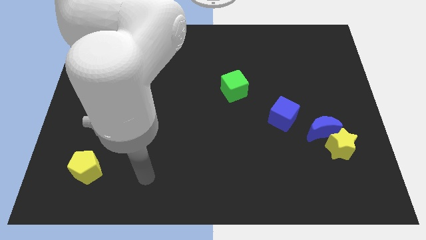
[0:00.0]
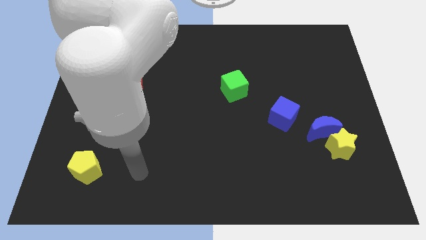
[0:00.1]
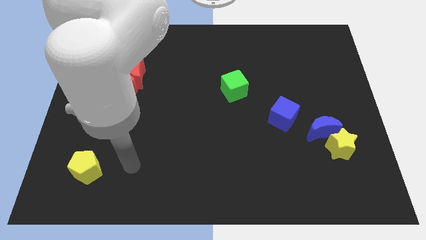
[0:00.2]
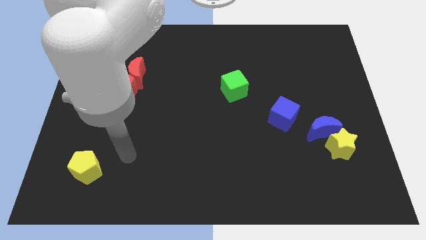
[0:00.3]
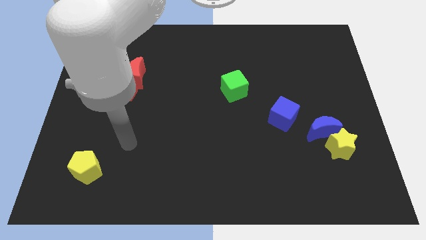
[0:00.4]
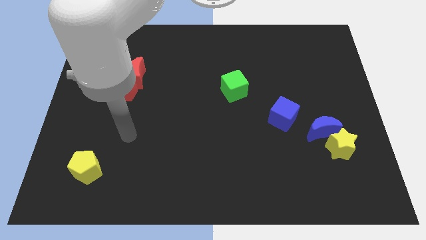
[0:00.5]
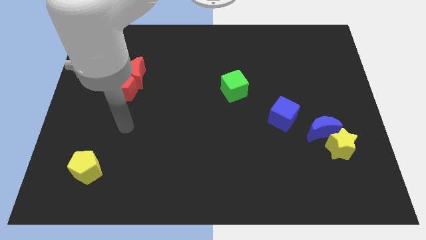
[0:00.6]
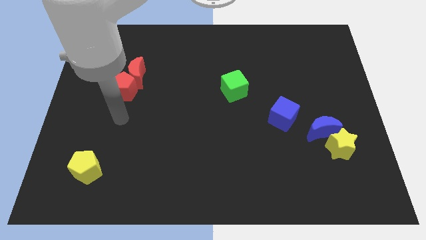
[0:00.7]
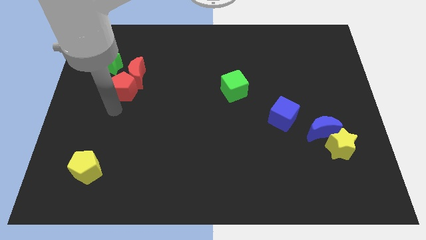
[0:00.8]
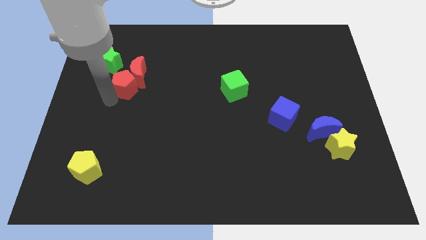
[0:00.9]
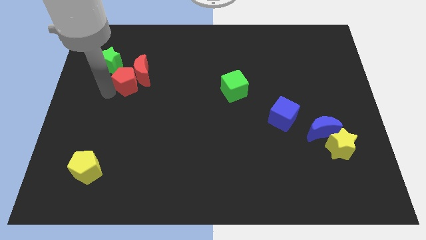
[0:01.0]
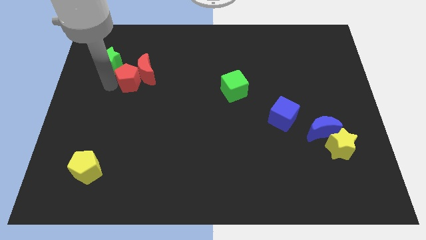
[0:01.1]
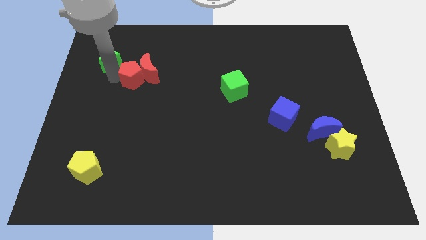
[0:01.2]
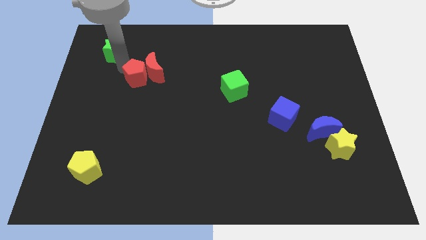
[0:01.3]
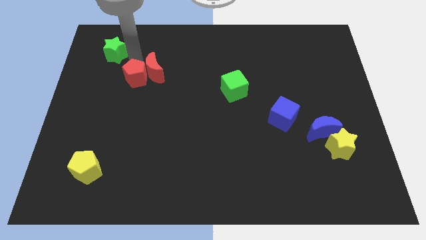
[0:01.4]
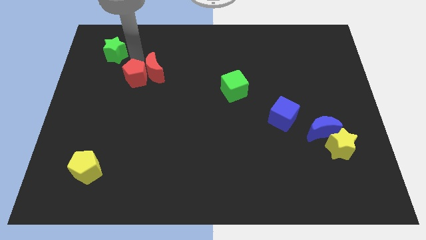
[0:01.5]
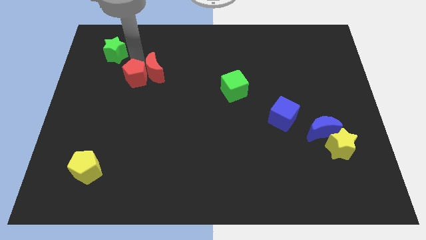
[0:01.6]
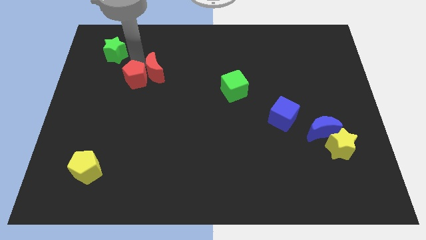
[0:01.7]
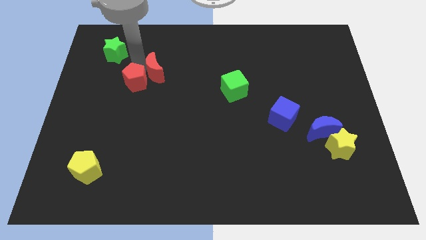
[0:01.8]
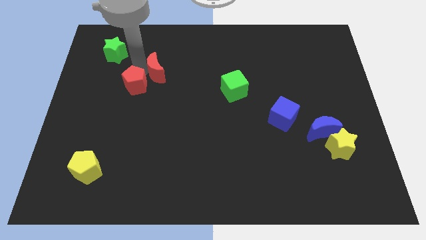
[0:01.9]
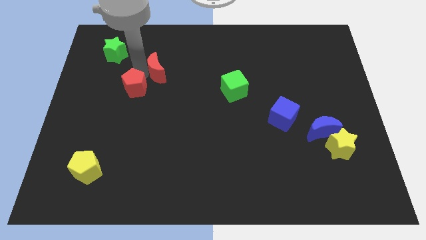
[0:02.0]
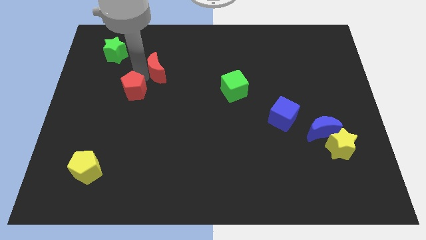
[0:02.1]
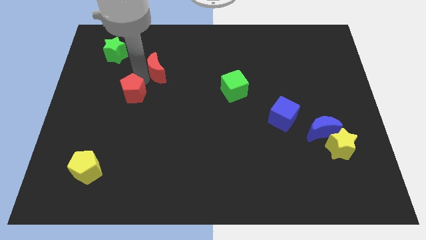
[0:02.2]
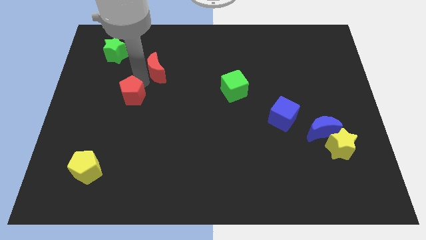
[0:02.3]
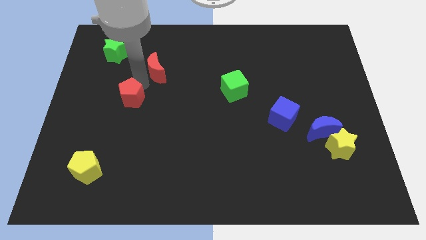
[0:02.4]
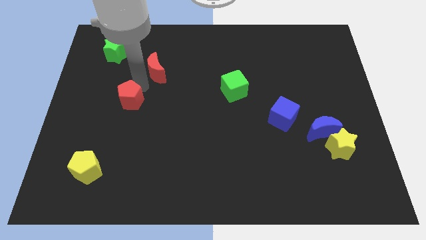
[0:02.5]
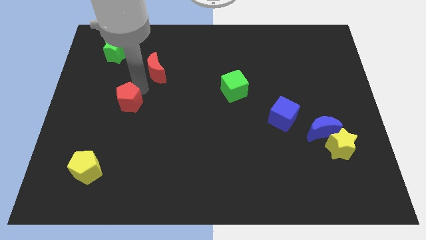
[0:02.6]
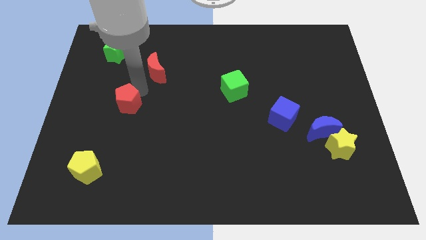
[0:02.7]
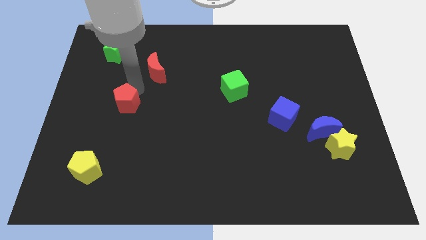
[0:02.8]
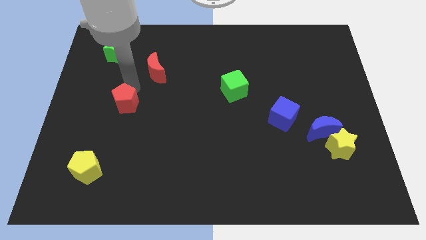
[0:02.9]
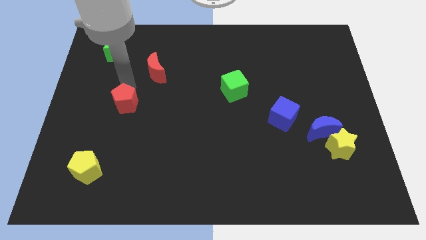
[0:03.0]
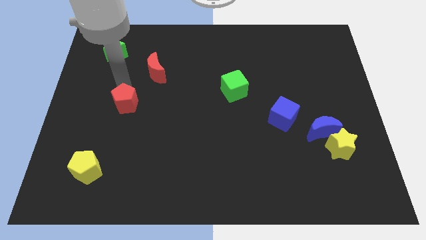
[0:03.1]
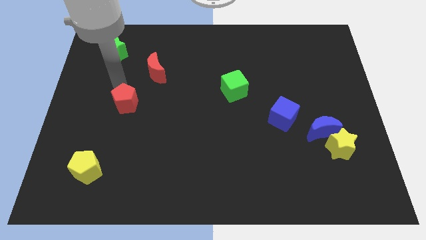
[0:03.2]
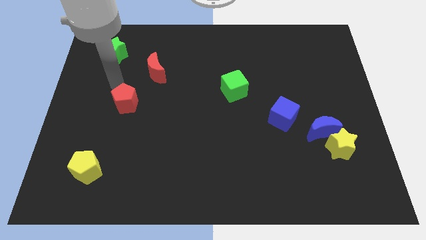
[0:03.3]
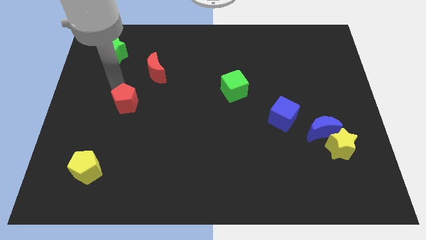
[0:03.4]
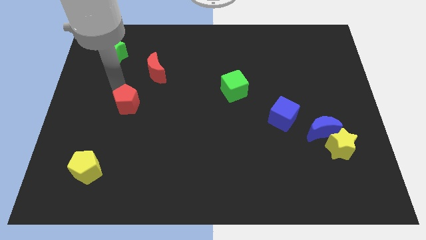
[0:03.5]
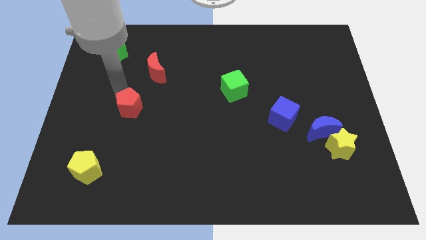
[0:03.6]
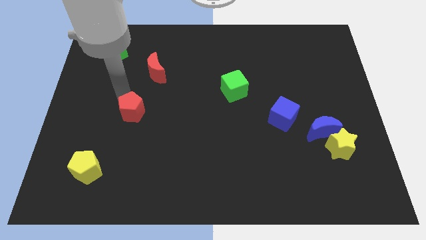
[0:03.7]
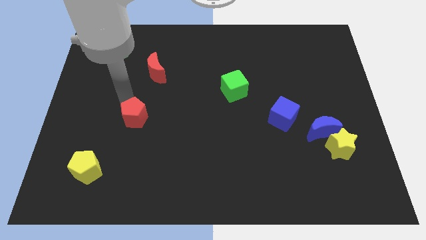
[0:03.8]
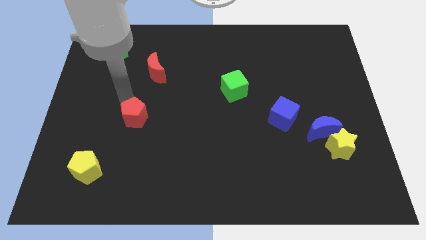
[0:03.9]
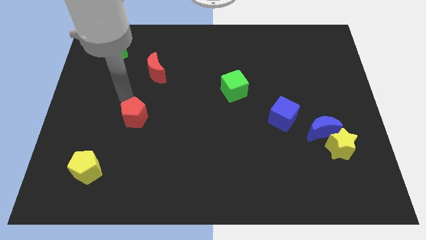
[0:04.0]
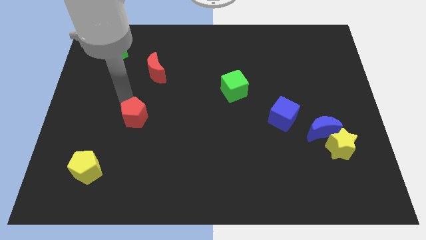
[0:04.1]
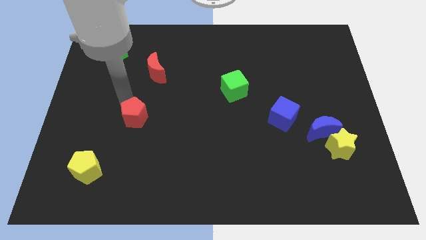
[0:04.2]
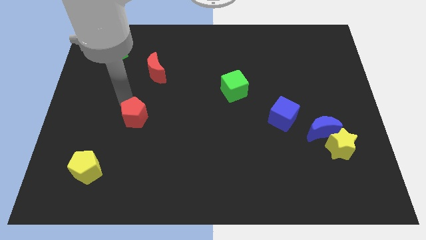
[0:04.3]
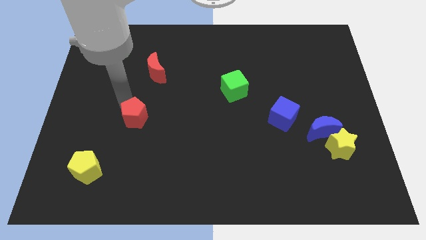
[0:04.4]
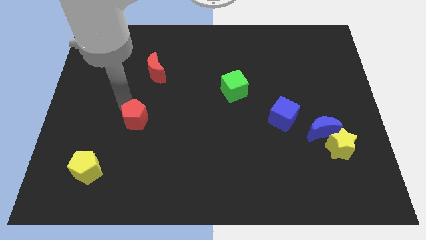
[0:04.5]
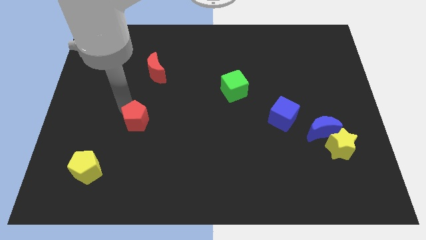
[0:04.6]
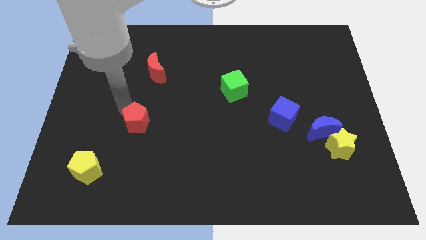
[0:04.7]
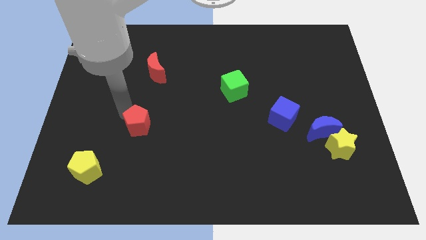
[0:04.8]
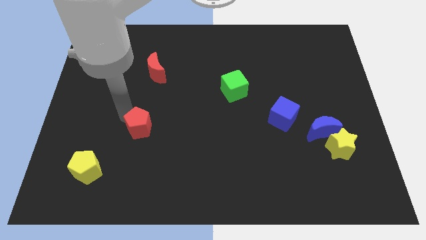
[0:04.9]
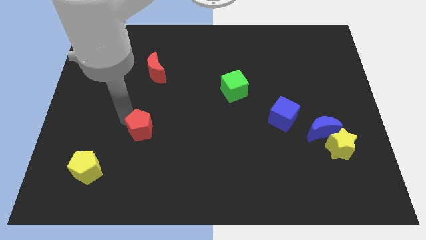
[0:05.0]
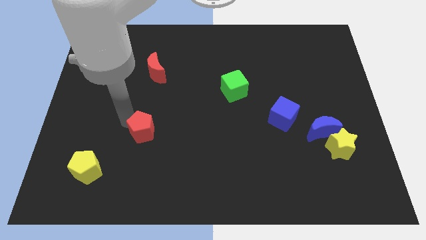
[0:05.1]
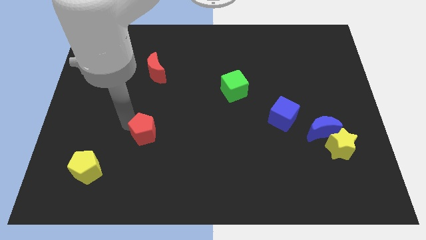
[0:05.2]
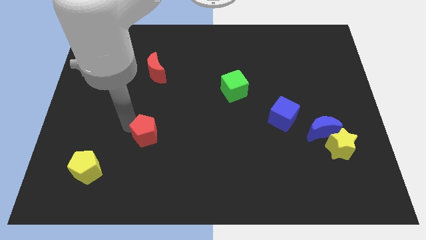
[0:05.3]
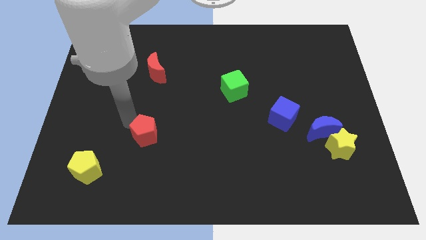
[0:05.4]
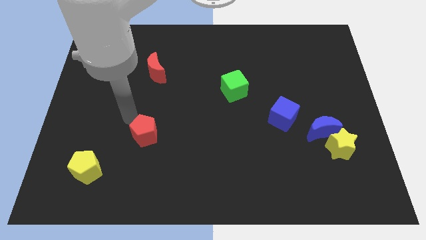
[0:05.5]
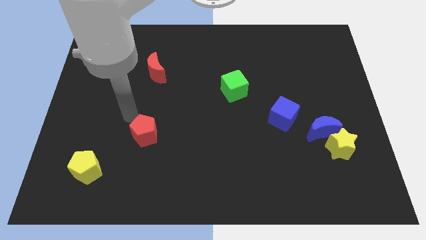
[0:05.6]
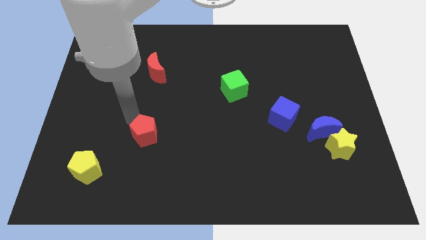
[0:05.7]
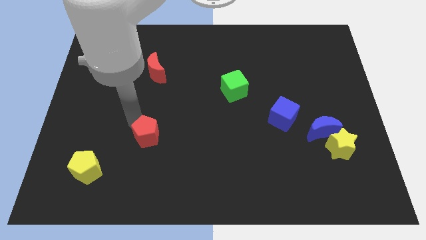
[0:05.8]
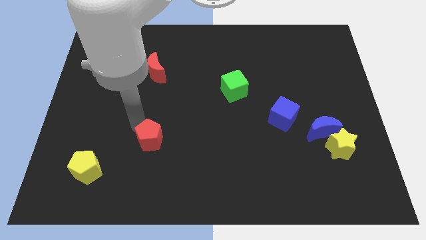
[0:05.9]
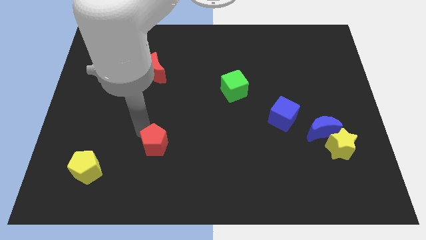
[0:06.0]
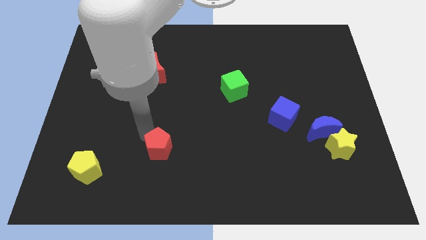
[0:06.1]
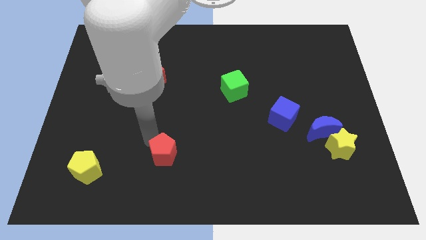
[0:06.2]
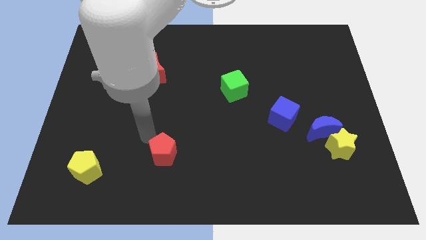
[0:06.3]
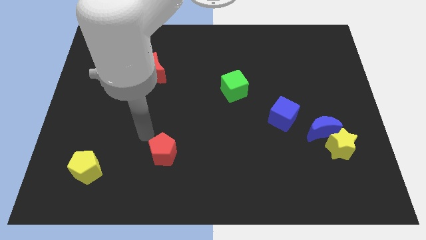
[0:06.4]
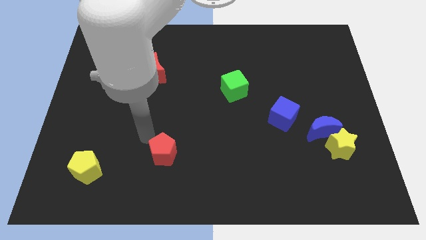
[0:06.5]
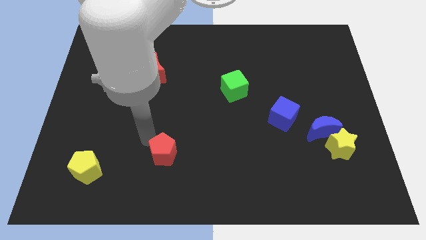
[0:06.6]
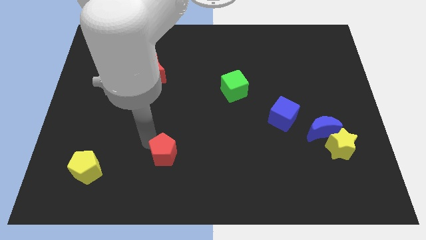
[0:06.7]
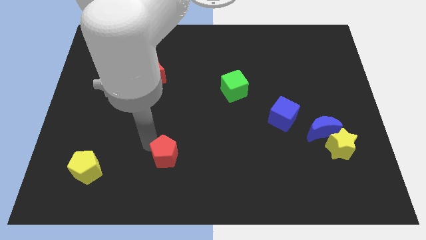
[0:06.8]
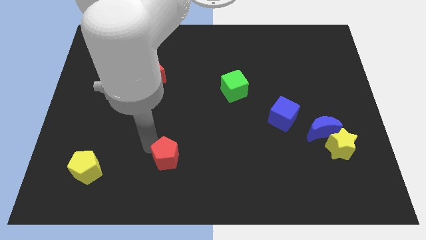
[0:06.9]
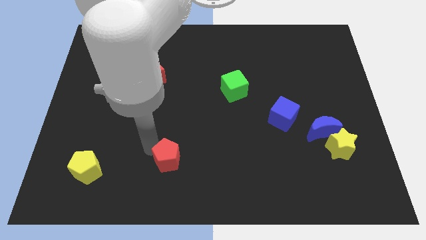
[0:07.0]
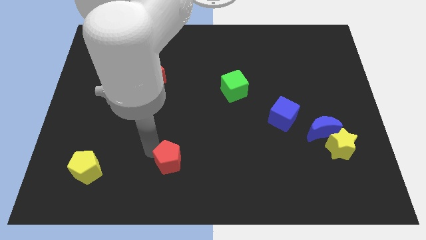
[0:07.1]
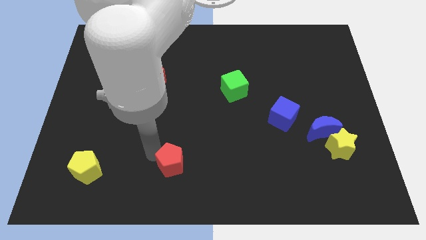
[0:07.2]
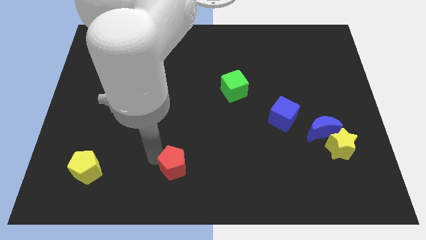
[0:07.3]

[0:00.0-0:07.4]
move the red pentagon to the bottom side
